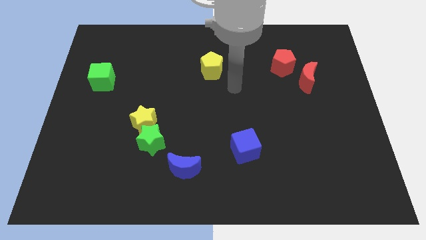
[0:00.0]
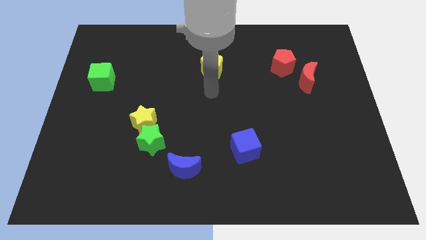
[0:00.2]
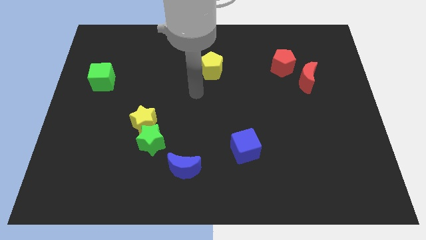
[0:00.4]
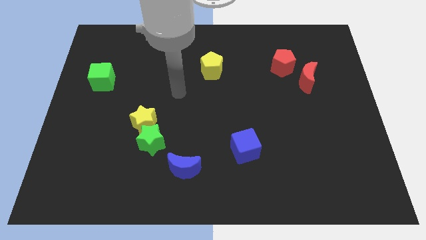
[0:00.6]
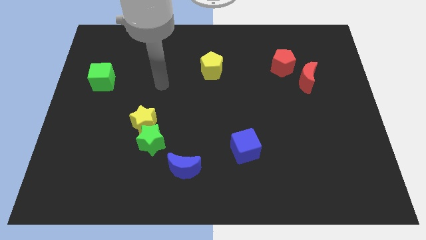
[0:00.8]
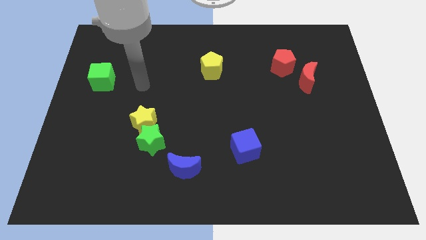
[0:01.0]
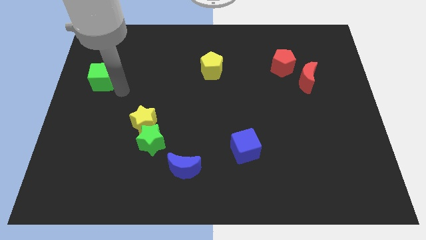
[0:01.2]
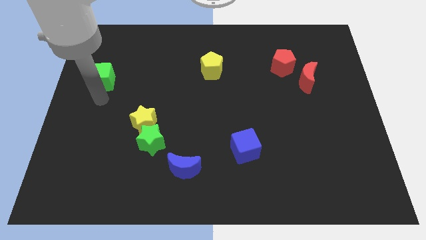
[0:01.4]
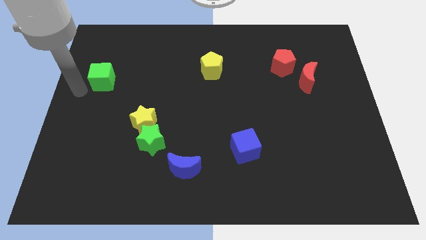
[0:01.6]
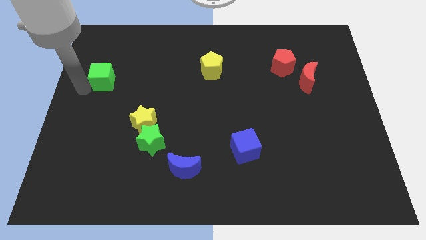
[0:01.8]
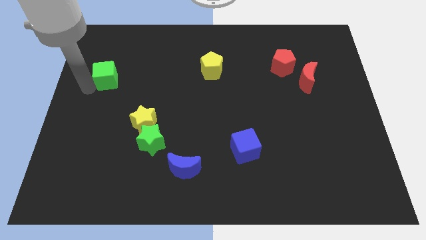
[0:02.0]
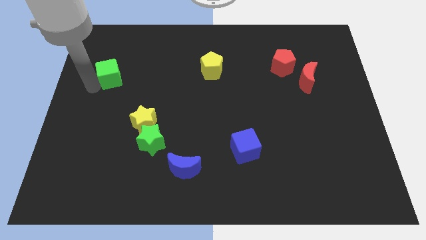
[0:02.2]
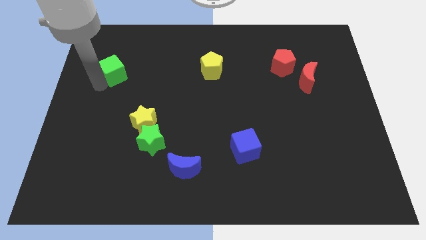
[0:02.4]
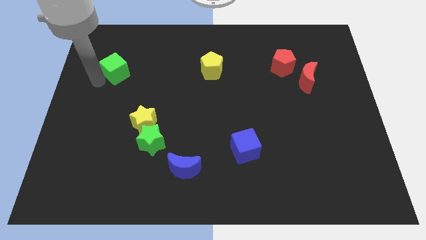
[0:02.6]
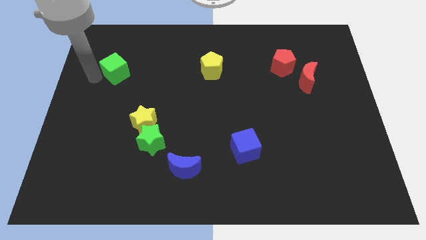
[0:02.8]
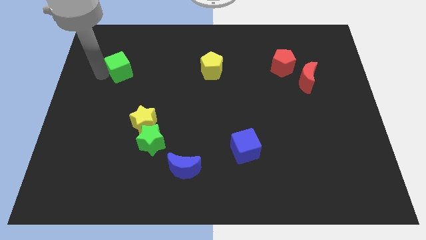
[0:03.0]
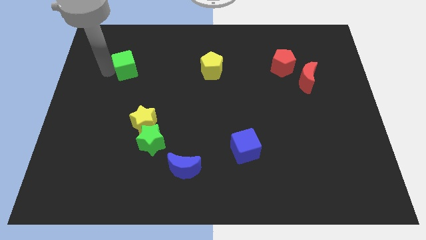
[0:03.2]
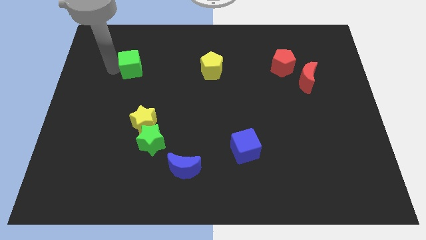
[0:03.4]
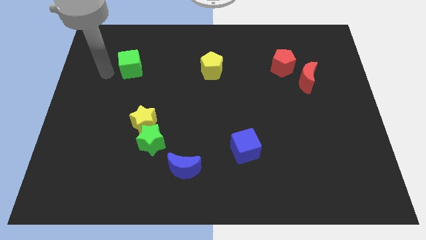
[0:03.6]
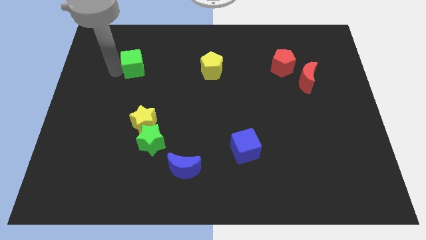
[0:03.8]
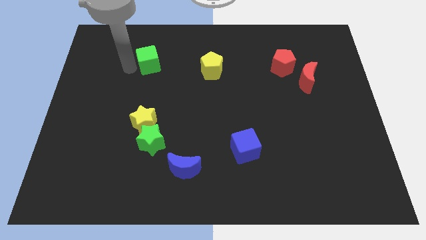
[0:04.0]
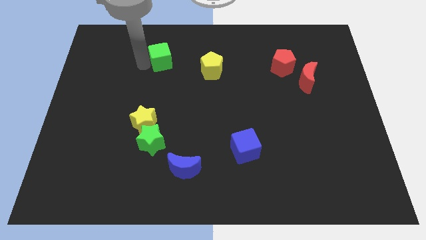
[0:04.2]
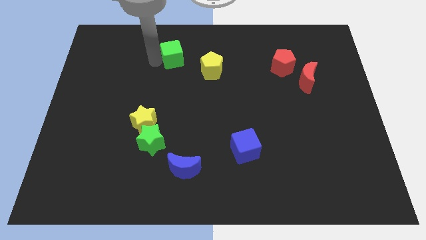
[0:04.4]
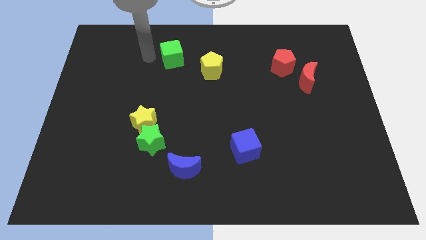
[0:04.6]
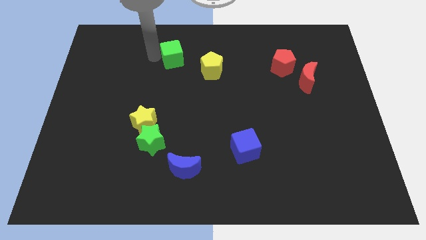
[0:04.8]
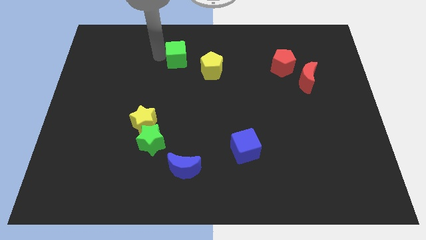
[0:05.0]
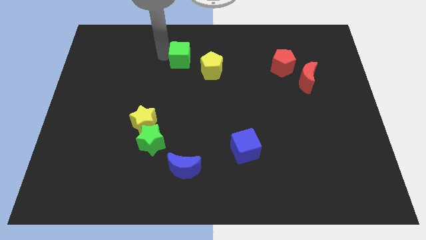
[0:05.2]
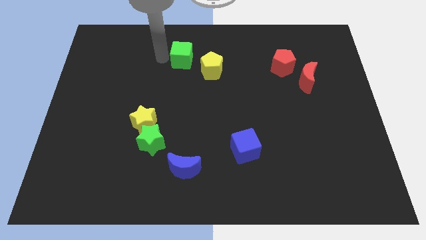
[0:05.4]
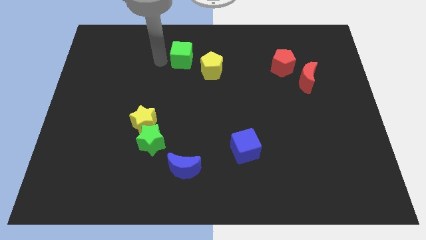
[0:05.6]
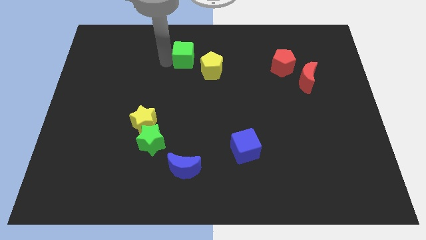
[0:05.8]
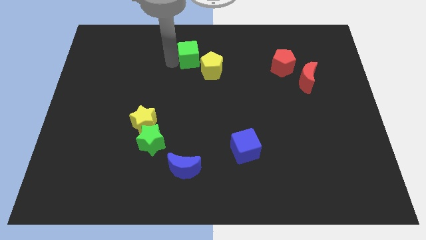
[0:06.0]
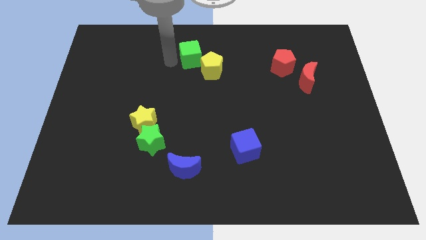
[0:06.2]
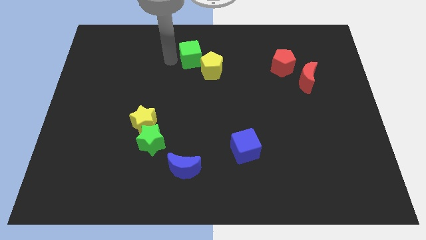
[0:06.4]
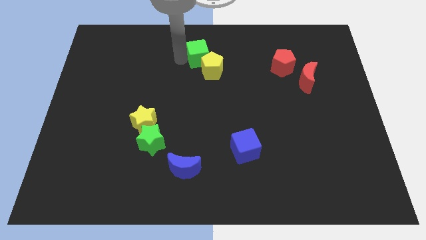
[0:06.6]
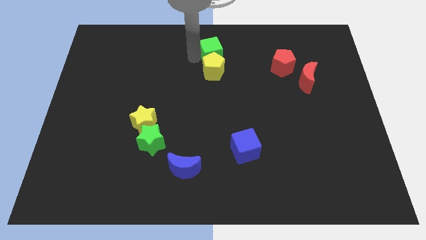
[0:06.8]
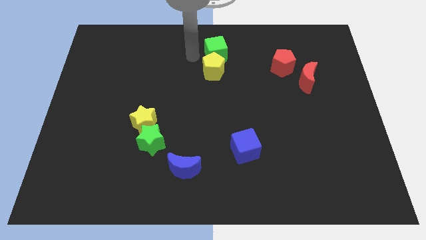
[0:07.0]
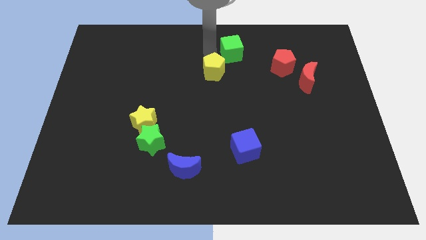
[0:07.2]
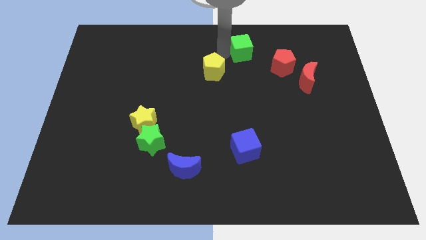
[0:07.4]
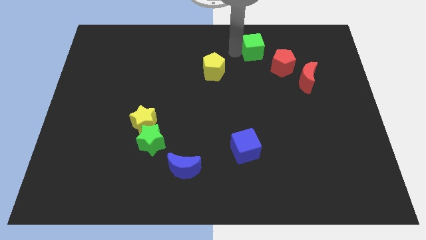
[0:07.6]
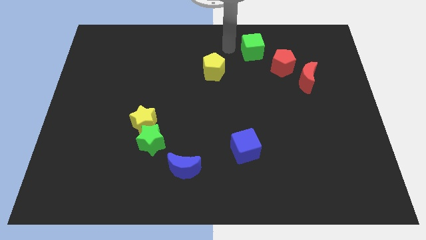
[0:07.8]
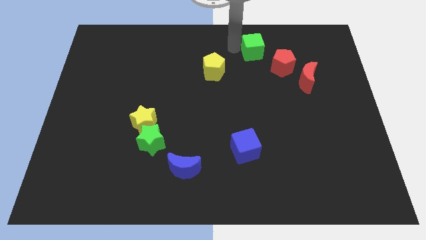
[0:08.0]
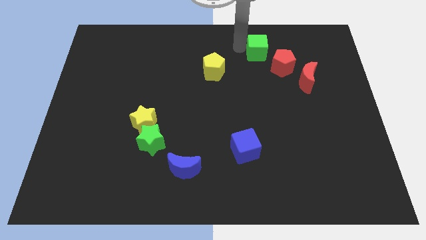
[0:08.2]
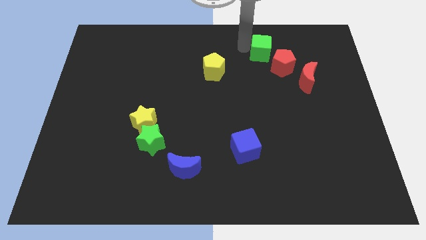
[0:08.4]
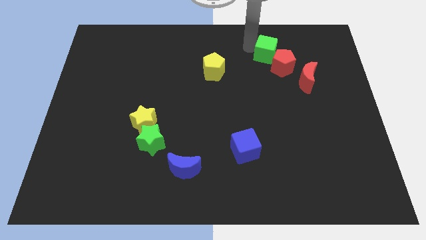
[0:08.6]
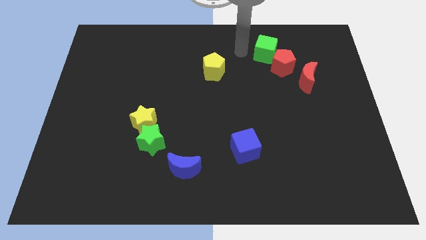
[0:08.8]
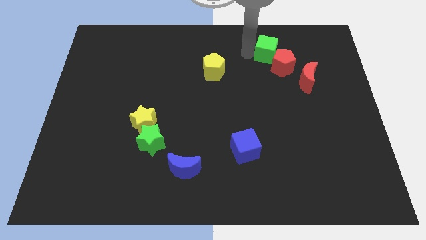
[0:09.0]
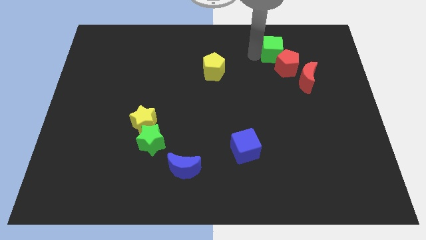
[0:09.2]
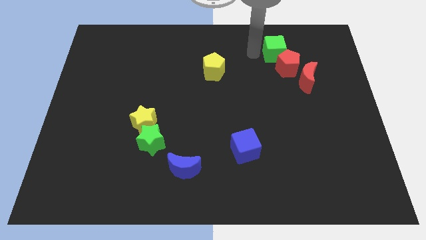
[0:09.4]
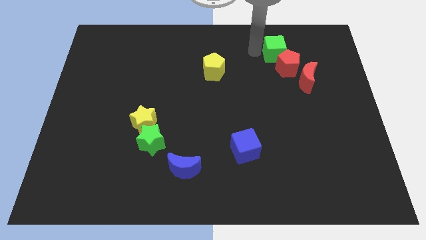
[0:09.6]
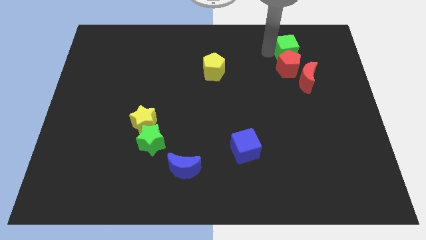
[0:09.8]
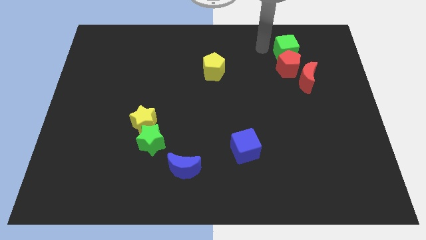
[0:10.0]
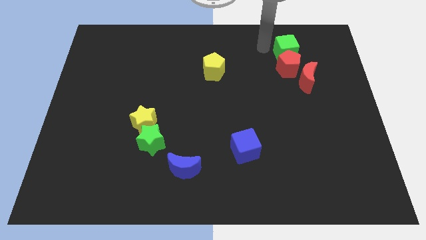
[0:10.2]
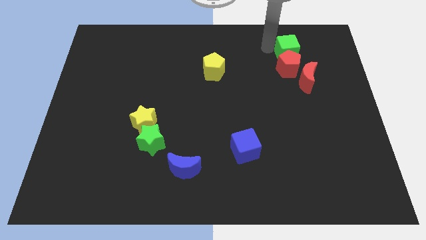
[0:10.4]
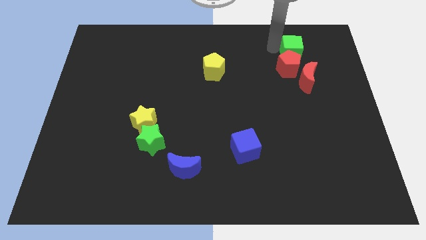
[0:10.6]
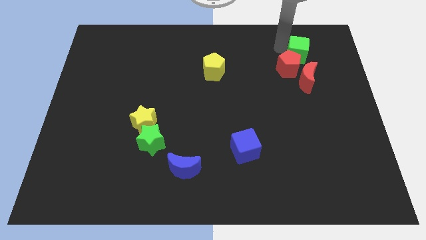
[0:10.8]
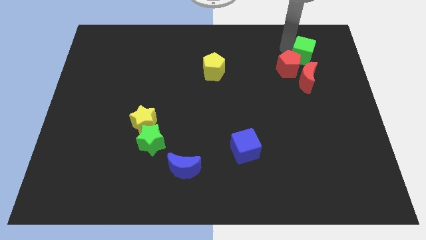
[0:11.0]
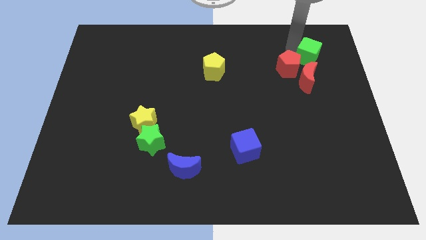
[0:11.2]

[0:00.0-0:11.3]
move the green cube to the top right of the red moon

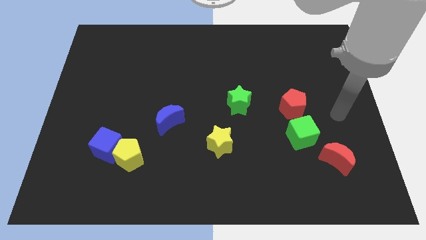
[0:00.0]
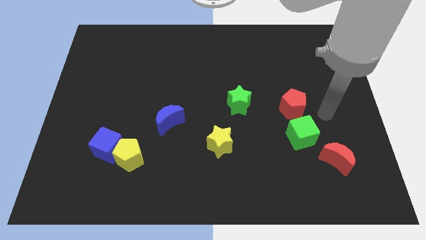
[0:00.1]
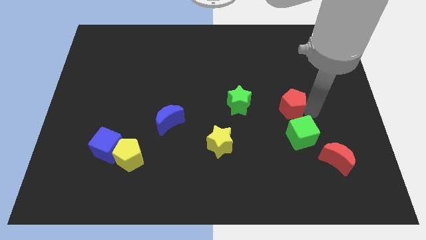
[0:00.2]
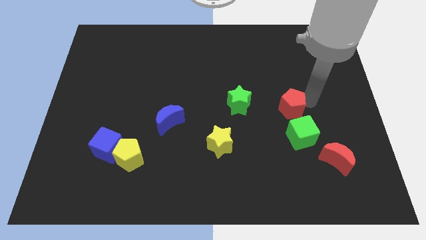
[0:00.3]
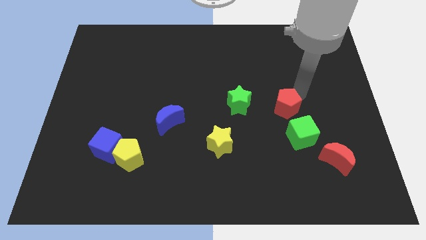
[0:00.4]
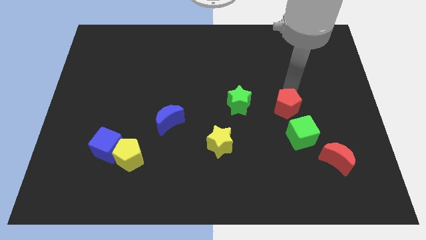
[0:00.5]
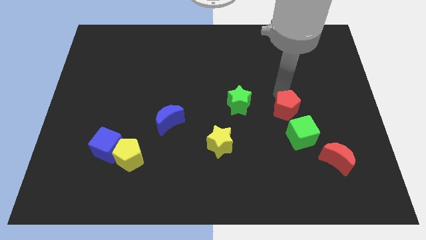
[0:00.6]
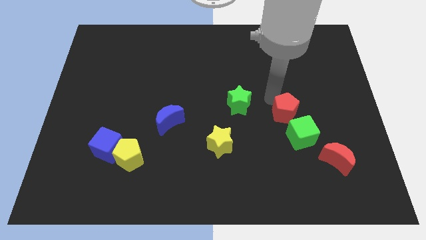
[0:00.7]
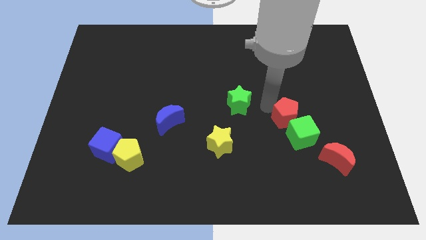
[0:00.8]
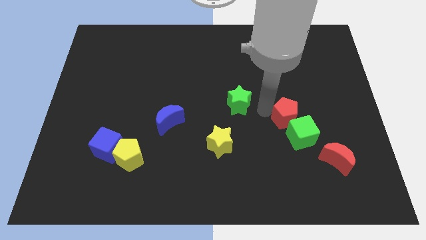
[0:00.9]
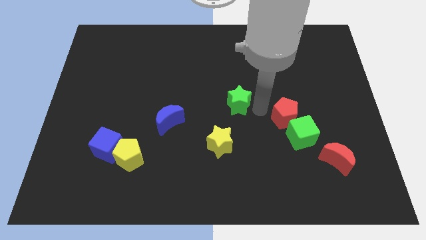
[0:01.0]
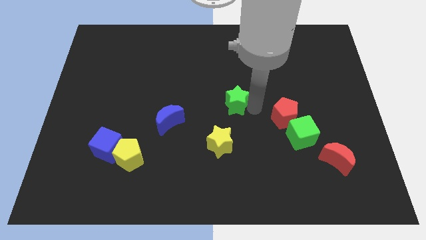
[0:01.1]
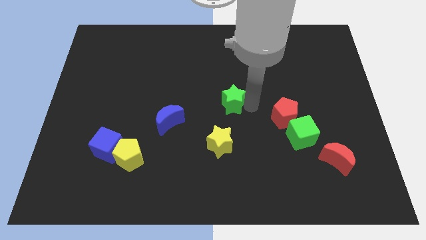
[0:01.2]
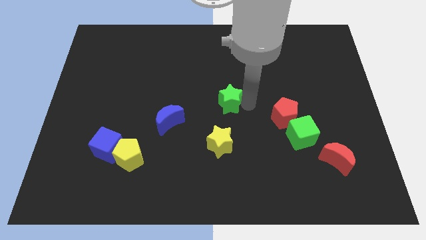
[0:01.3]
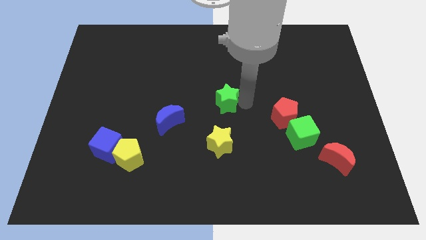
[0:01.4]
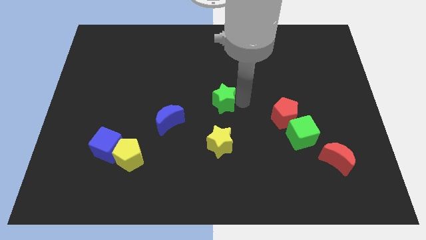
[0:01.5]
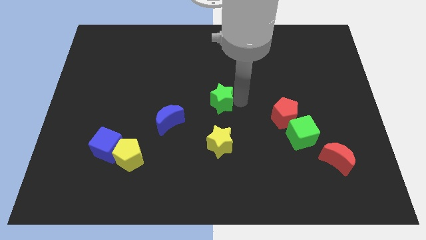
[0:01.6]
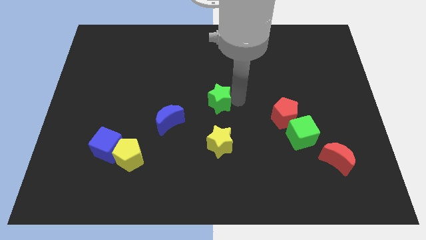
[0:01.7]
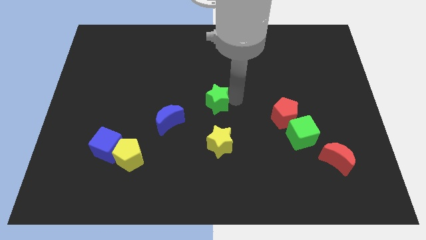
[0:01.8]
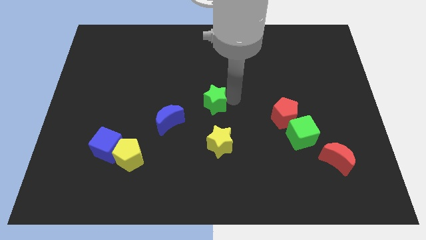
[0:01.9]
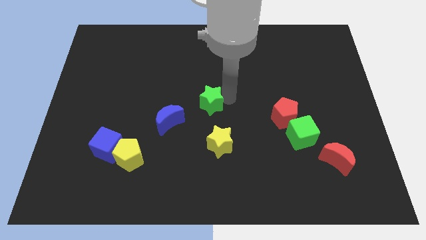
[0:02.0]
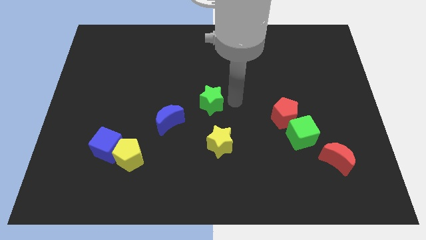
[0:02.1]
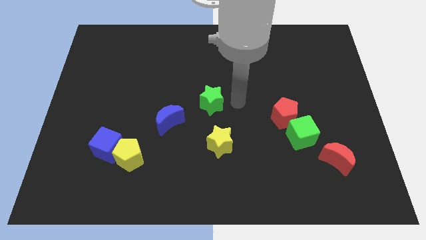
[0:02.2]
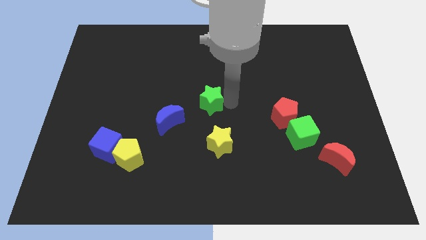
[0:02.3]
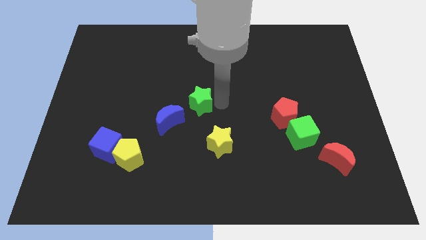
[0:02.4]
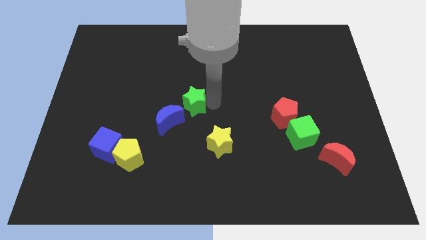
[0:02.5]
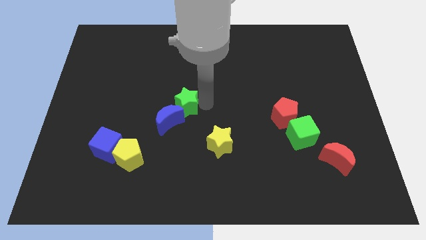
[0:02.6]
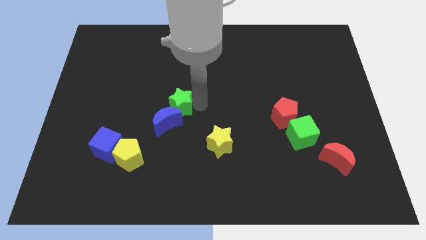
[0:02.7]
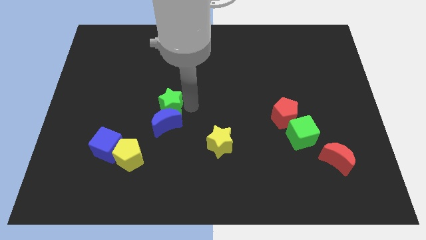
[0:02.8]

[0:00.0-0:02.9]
move the green star to the top left side of the blue moon
